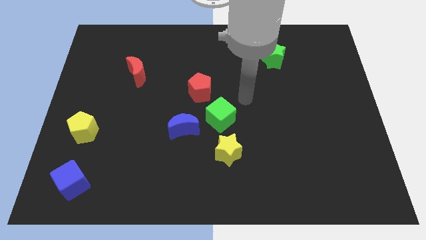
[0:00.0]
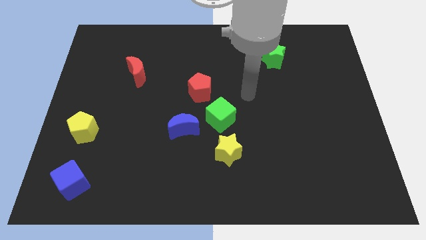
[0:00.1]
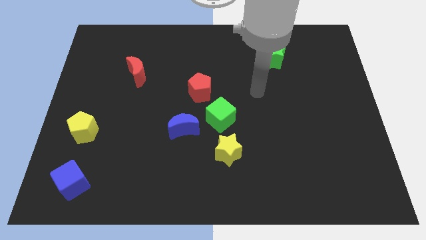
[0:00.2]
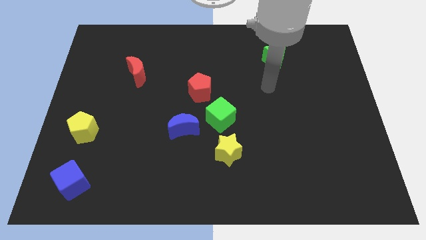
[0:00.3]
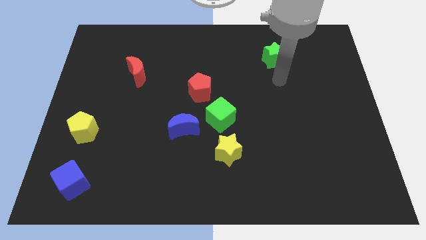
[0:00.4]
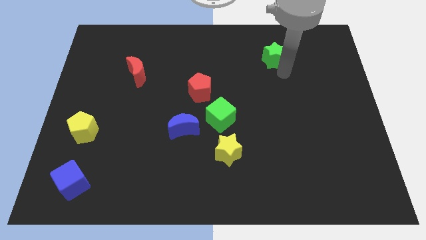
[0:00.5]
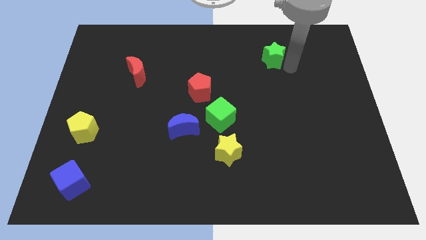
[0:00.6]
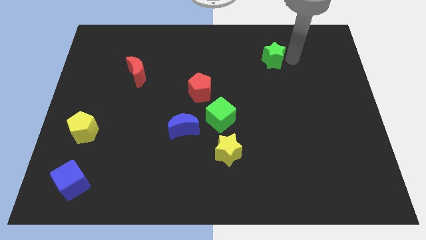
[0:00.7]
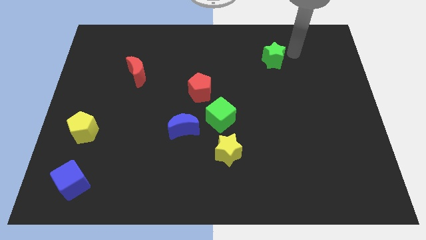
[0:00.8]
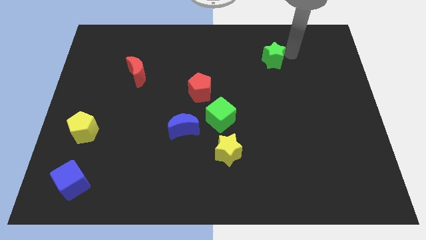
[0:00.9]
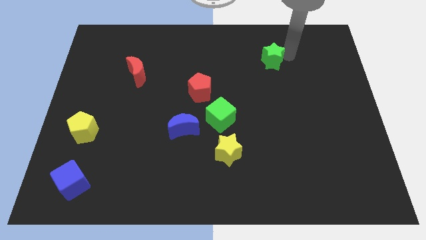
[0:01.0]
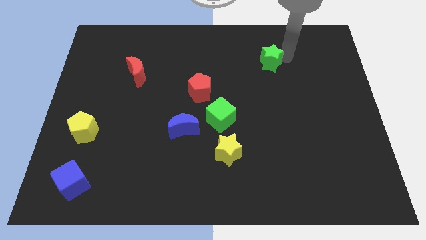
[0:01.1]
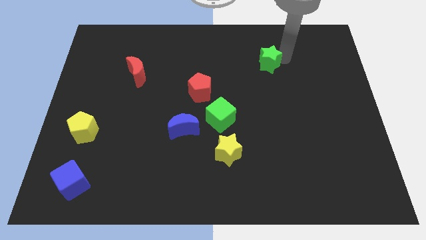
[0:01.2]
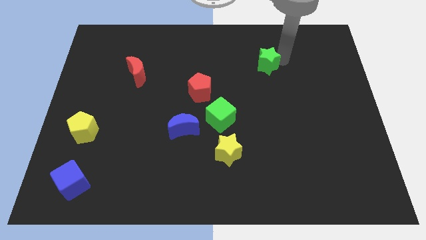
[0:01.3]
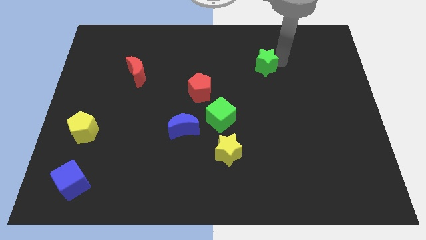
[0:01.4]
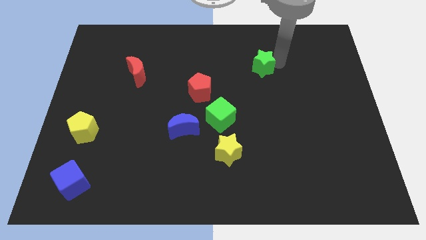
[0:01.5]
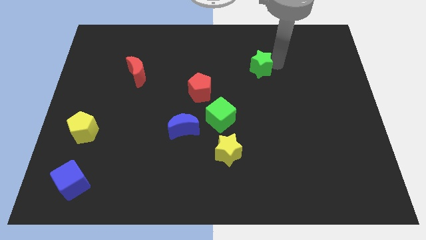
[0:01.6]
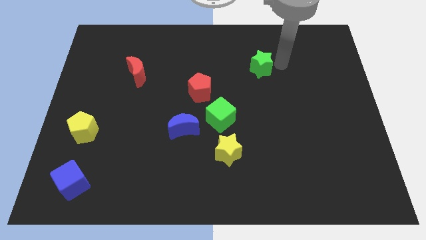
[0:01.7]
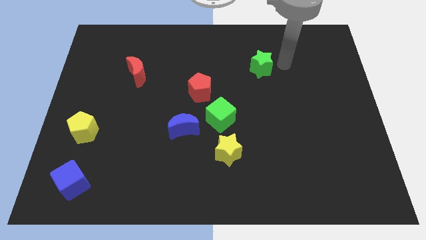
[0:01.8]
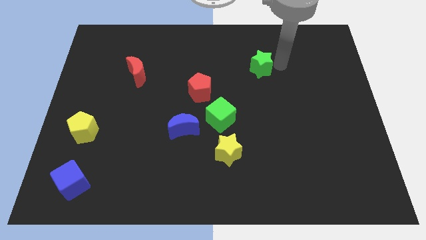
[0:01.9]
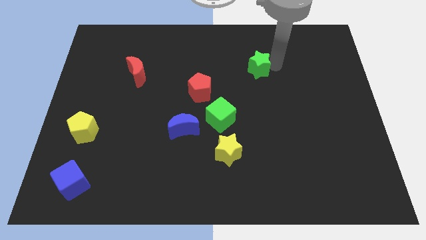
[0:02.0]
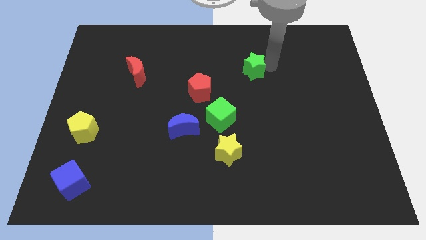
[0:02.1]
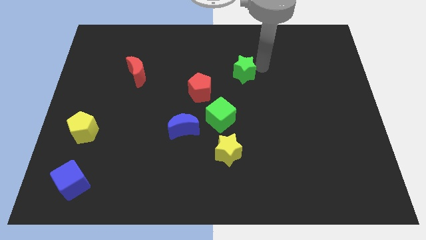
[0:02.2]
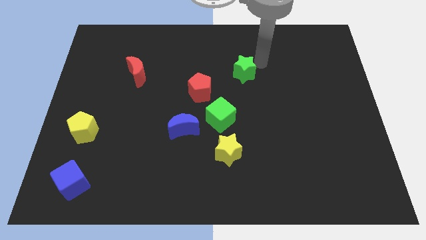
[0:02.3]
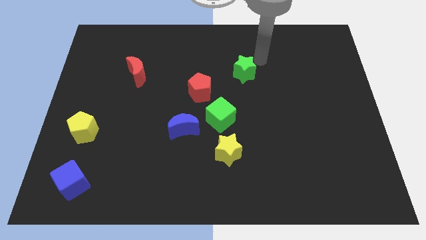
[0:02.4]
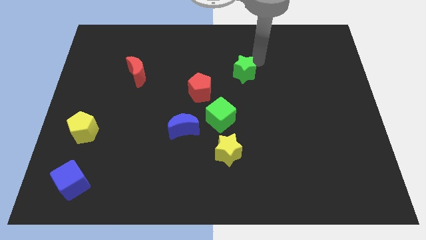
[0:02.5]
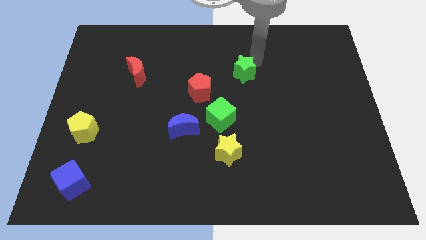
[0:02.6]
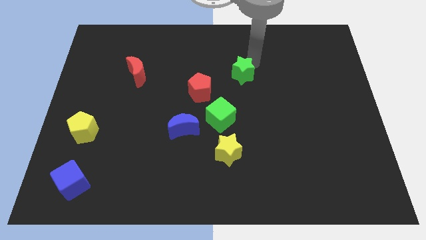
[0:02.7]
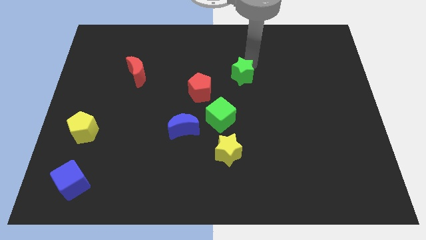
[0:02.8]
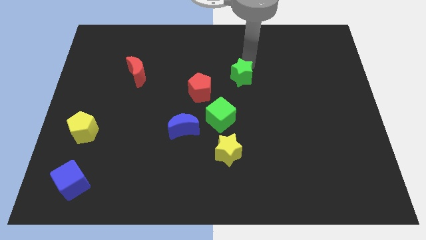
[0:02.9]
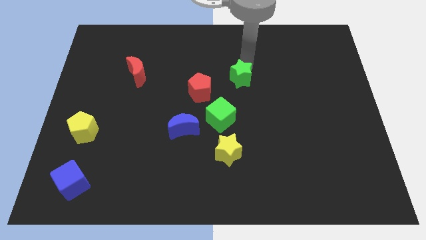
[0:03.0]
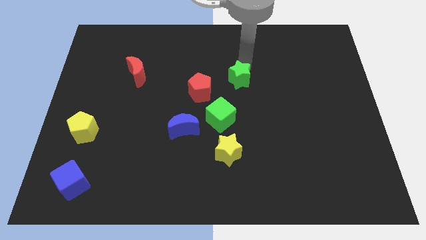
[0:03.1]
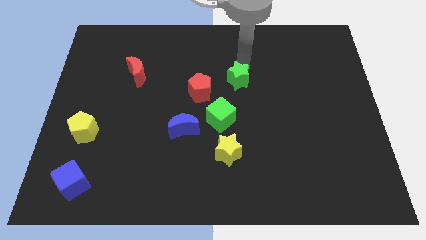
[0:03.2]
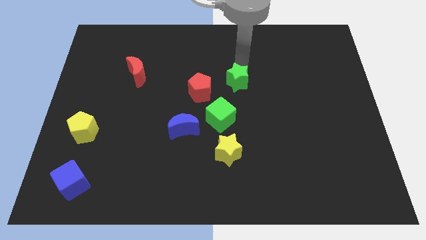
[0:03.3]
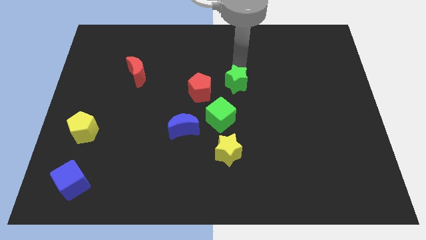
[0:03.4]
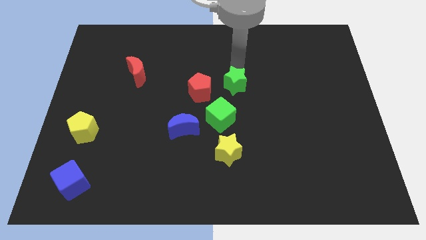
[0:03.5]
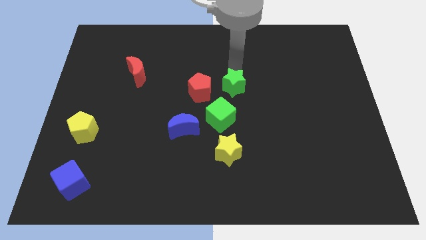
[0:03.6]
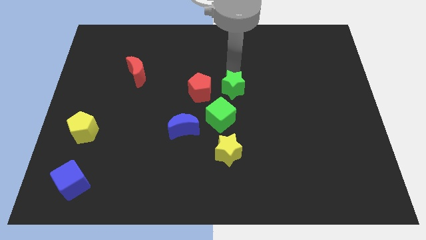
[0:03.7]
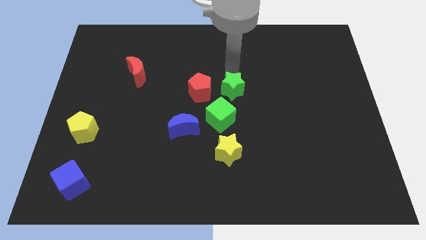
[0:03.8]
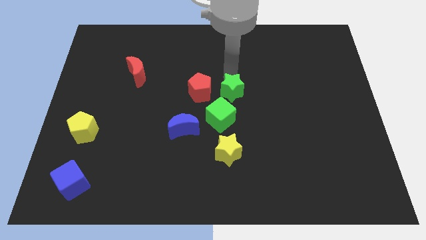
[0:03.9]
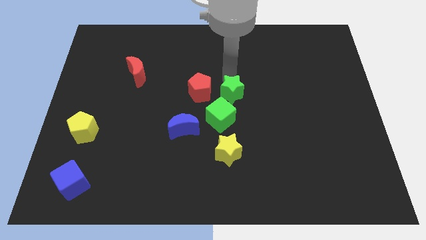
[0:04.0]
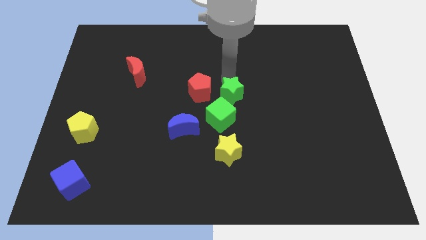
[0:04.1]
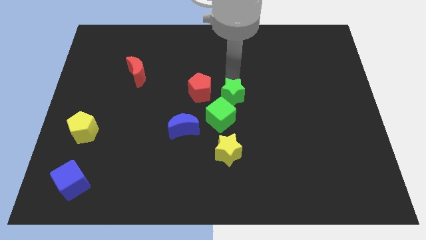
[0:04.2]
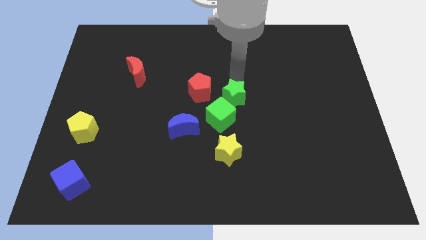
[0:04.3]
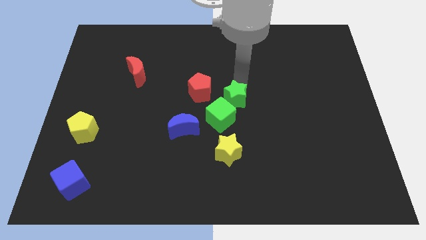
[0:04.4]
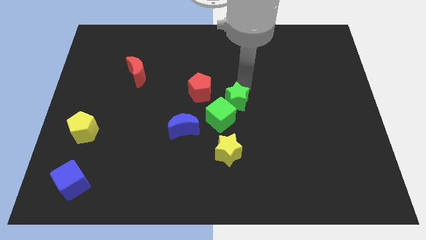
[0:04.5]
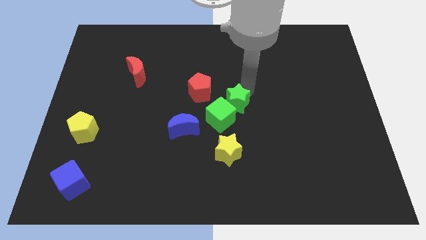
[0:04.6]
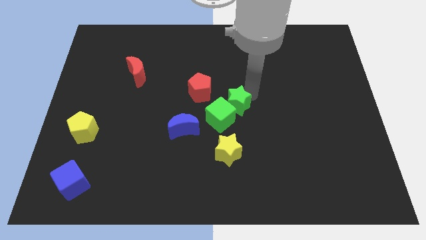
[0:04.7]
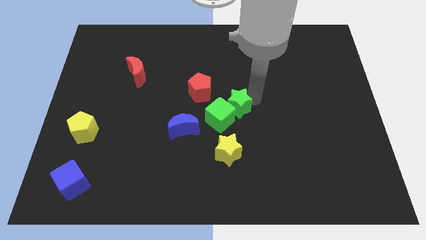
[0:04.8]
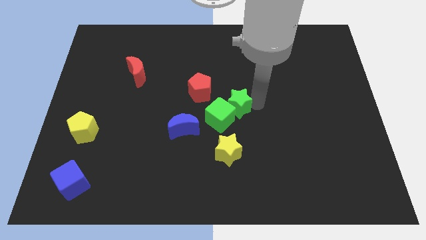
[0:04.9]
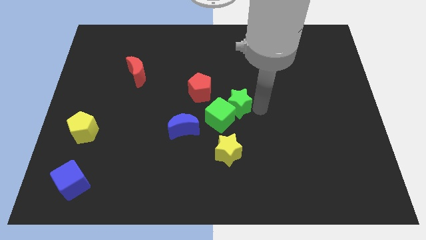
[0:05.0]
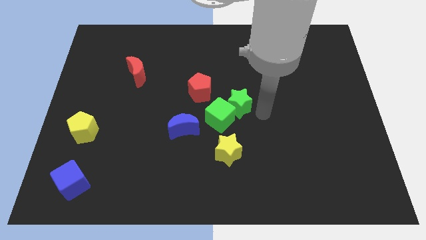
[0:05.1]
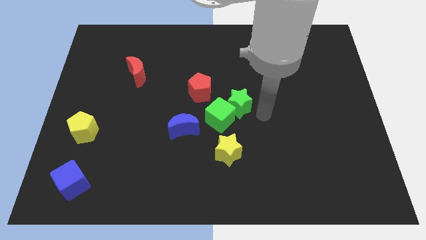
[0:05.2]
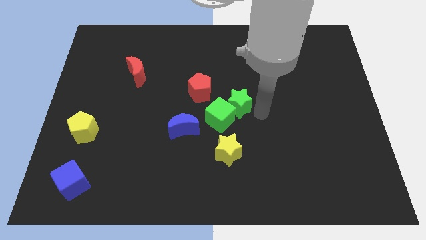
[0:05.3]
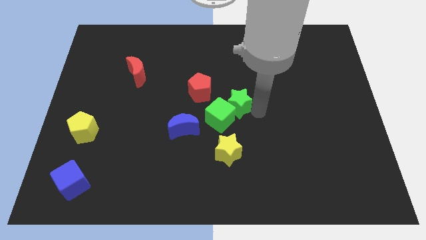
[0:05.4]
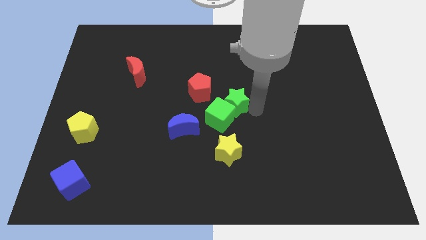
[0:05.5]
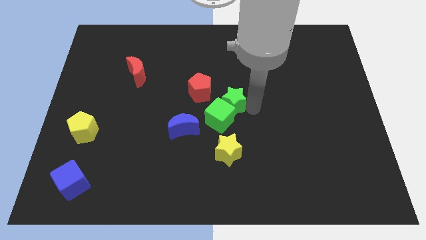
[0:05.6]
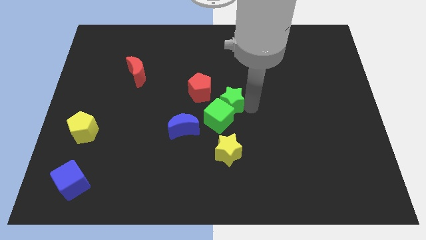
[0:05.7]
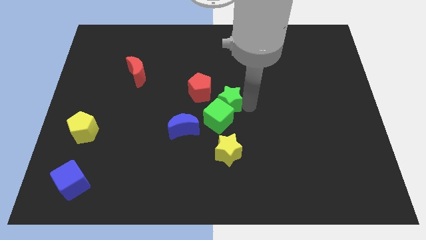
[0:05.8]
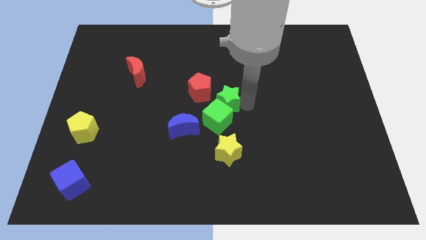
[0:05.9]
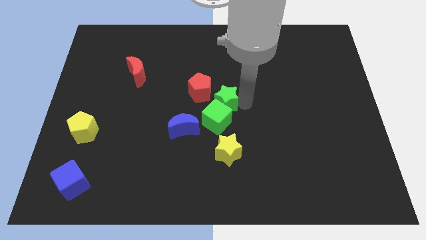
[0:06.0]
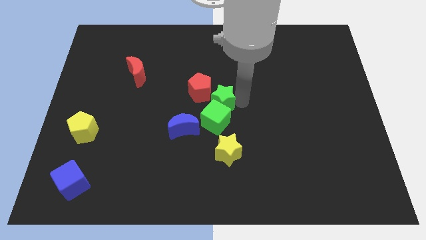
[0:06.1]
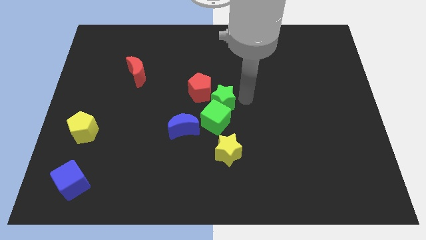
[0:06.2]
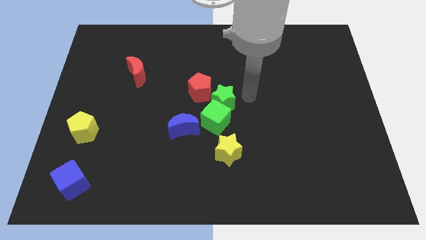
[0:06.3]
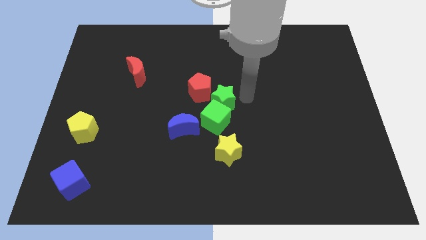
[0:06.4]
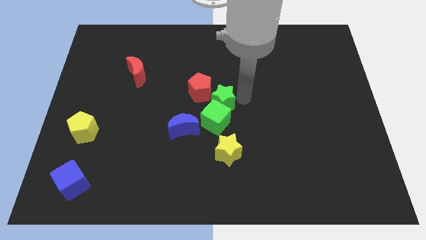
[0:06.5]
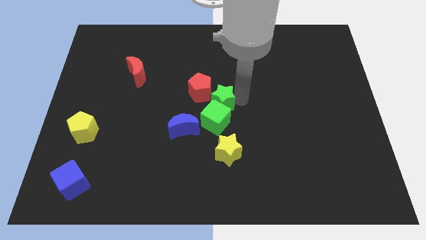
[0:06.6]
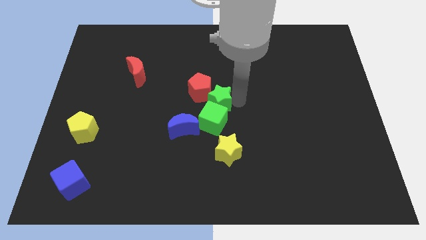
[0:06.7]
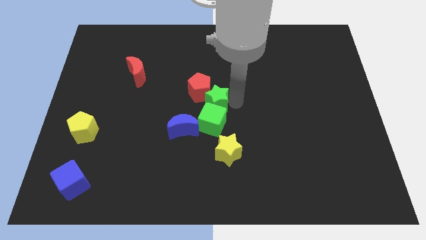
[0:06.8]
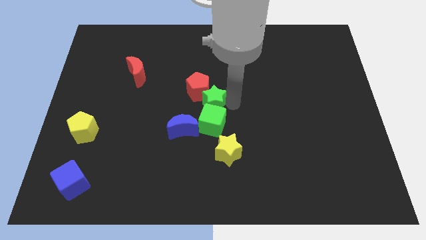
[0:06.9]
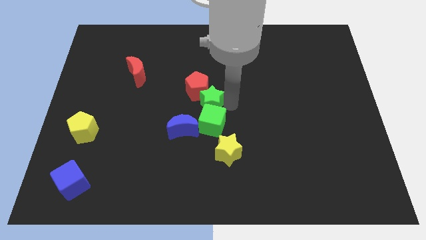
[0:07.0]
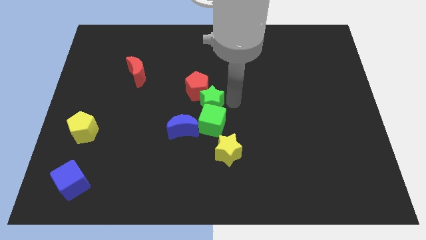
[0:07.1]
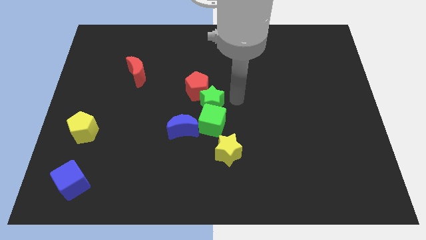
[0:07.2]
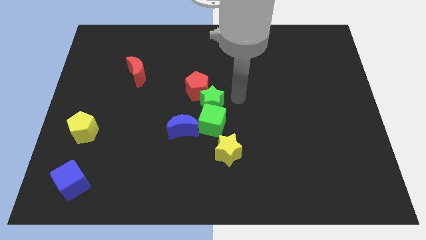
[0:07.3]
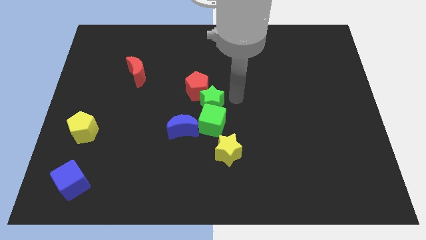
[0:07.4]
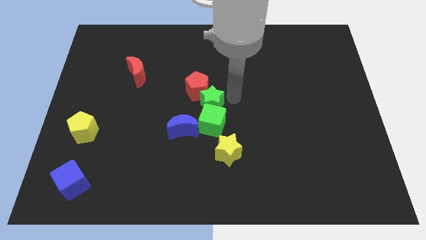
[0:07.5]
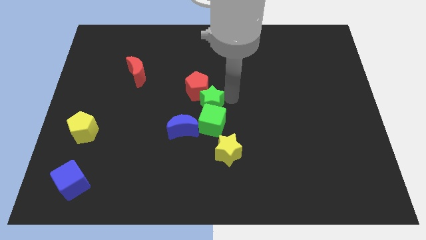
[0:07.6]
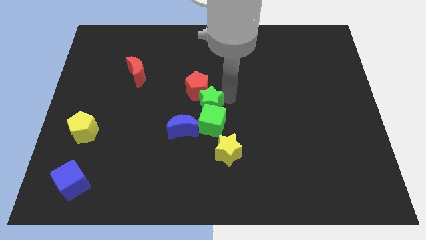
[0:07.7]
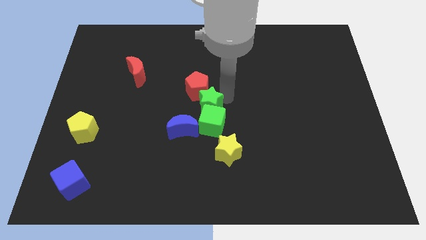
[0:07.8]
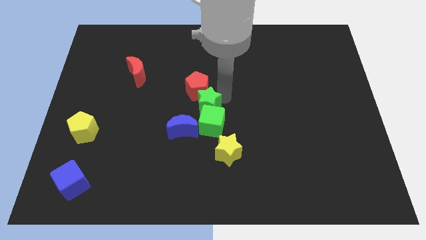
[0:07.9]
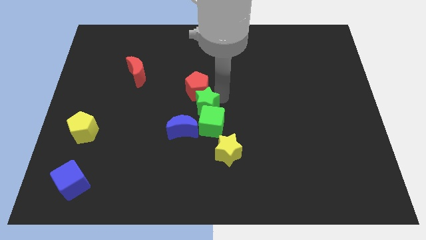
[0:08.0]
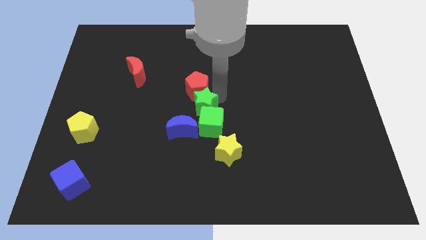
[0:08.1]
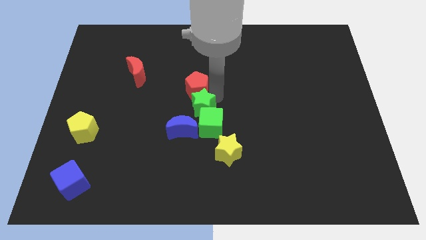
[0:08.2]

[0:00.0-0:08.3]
put the green star diagonally down and to the left of the red pentagon

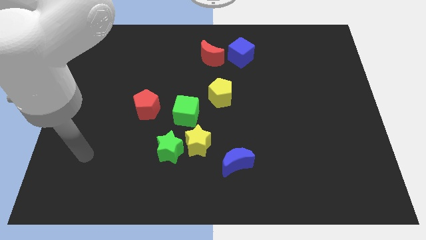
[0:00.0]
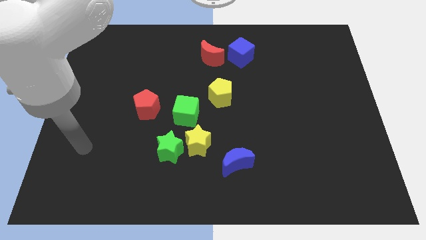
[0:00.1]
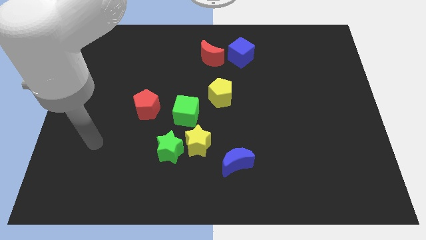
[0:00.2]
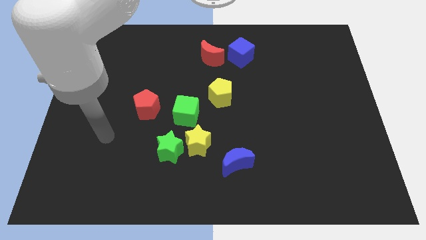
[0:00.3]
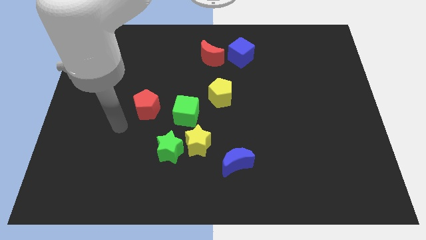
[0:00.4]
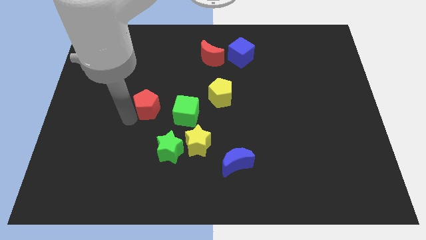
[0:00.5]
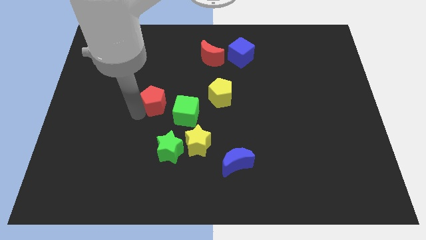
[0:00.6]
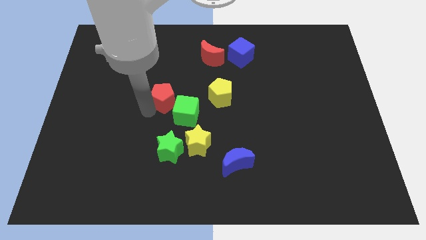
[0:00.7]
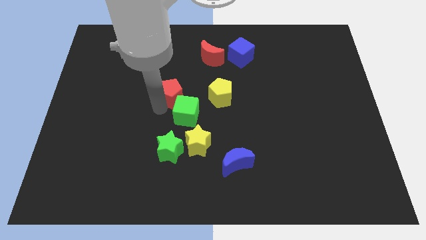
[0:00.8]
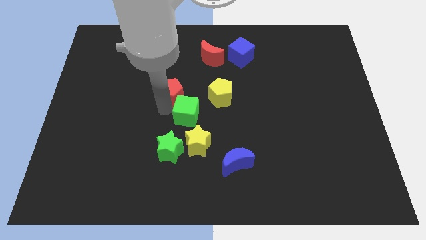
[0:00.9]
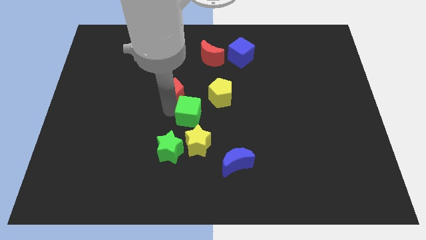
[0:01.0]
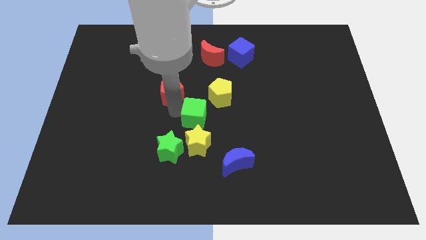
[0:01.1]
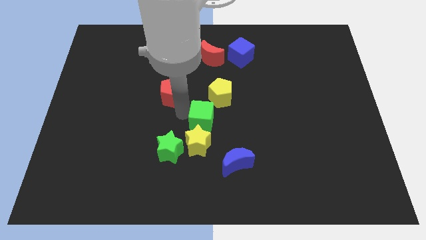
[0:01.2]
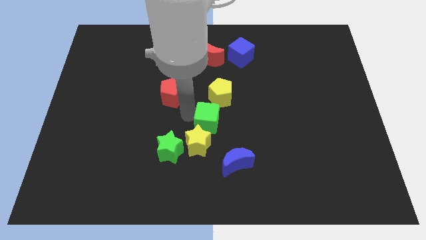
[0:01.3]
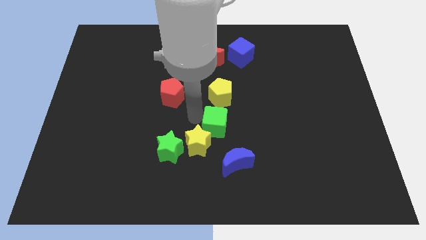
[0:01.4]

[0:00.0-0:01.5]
push the green cube above the blue moon
